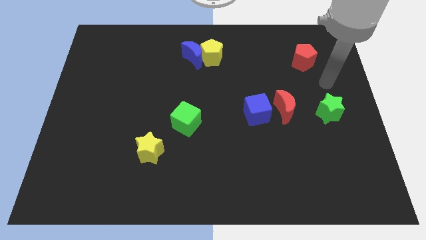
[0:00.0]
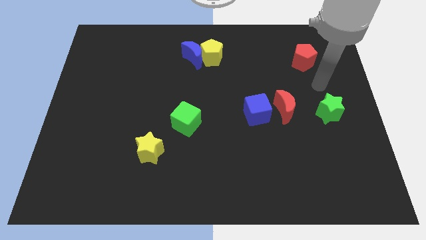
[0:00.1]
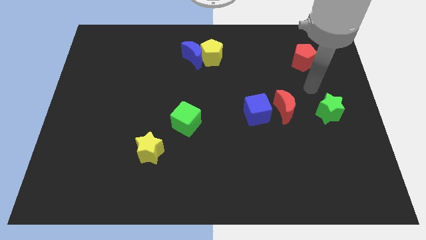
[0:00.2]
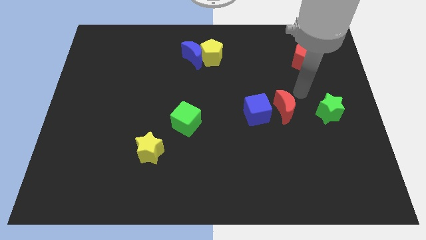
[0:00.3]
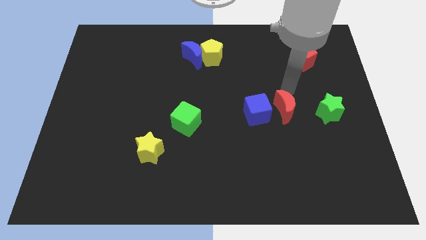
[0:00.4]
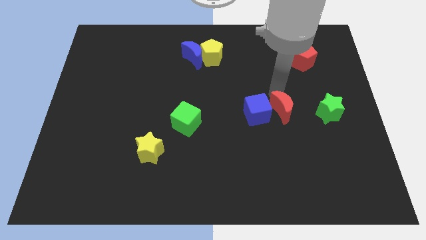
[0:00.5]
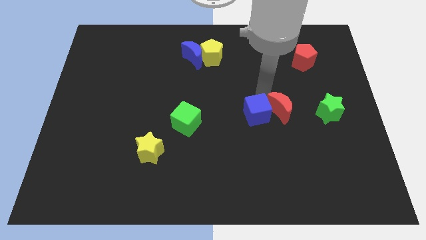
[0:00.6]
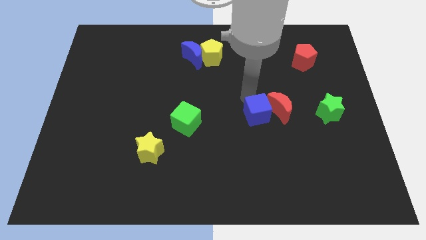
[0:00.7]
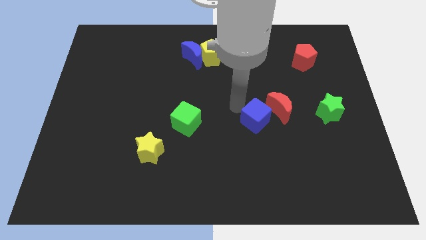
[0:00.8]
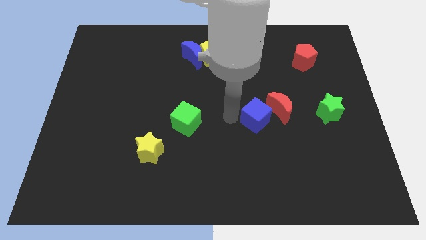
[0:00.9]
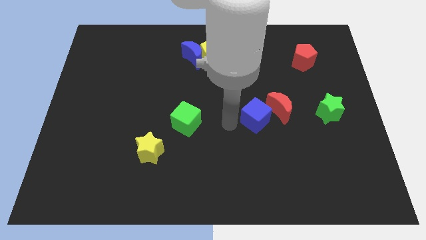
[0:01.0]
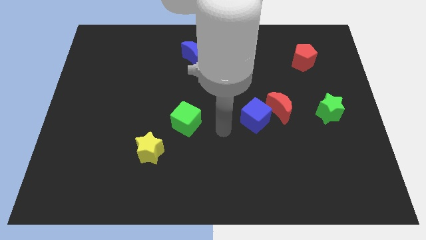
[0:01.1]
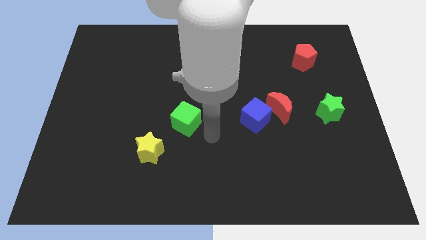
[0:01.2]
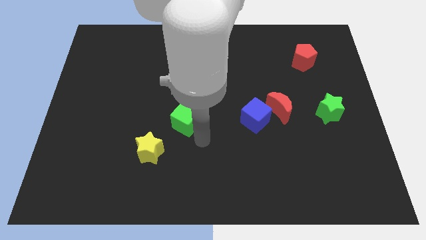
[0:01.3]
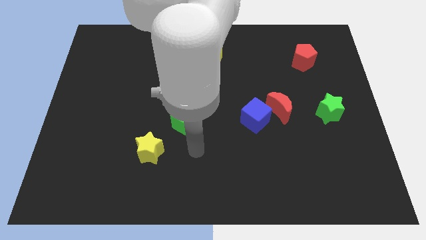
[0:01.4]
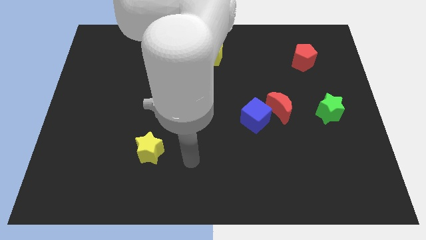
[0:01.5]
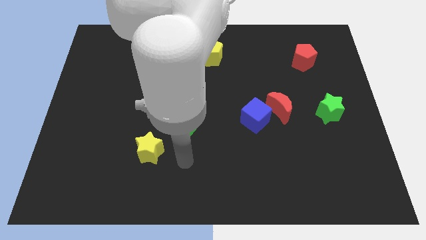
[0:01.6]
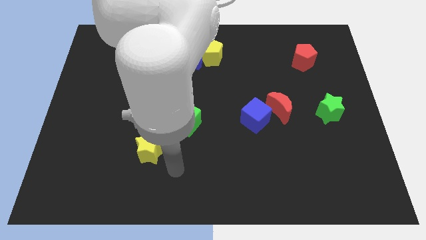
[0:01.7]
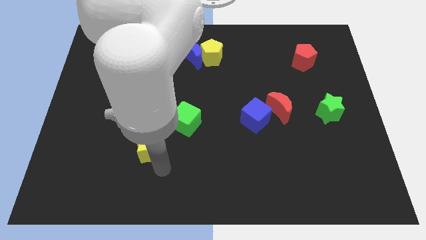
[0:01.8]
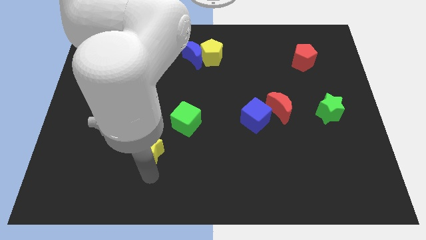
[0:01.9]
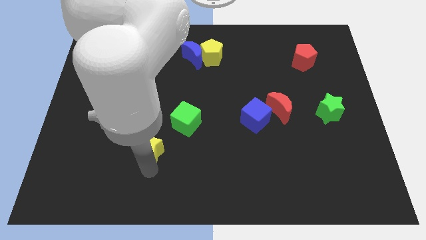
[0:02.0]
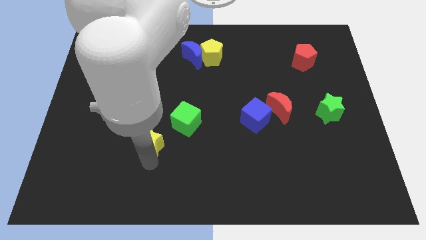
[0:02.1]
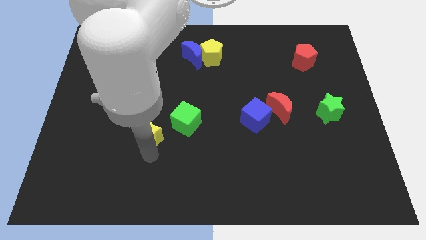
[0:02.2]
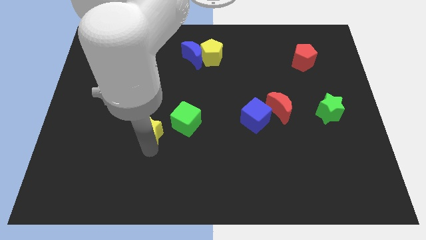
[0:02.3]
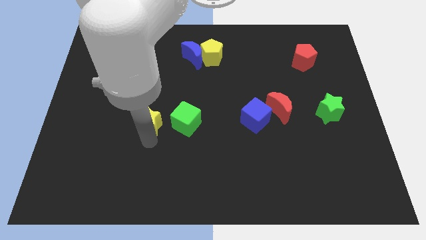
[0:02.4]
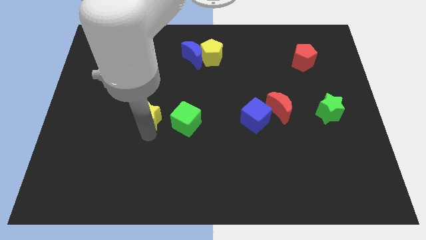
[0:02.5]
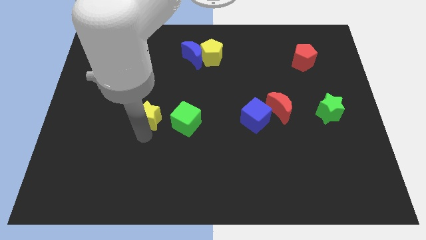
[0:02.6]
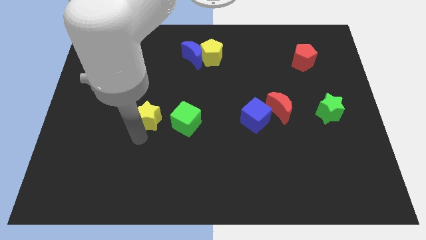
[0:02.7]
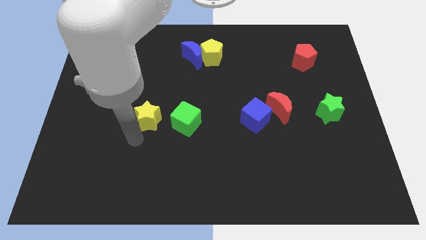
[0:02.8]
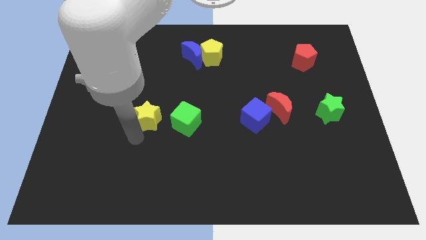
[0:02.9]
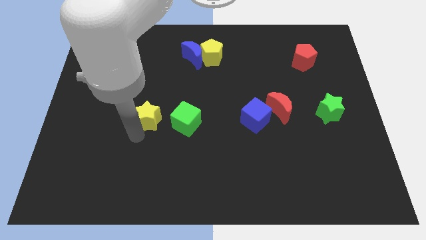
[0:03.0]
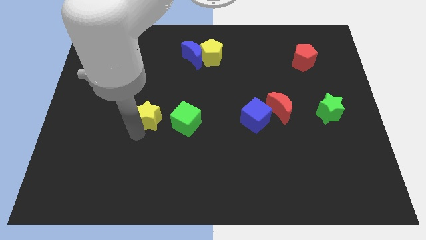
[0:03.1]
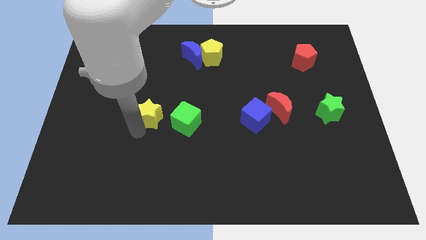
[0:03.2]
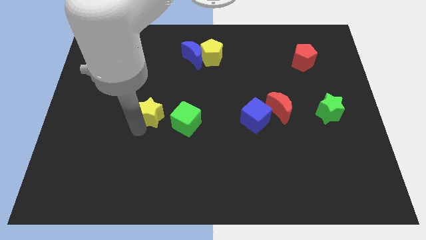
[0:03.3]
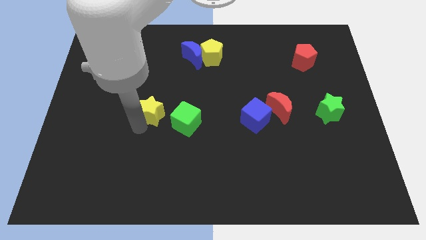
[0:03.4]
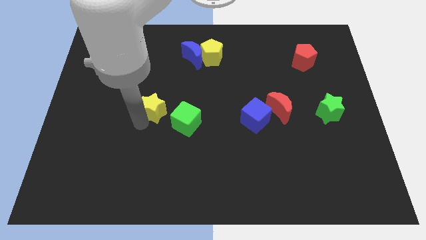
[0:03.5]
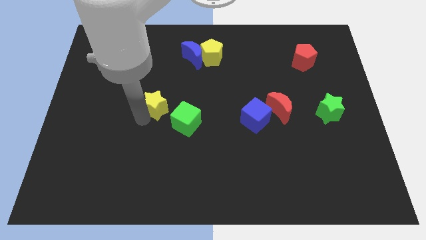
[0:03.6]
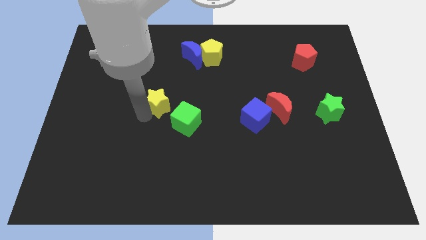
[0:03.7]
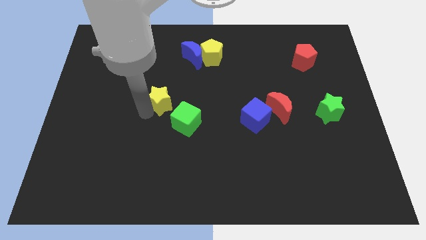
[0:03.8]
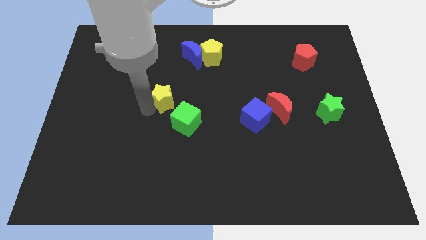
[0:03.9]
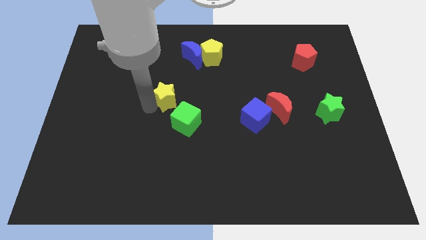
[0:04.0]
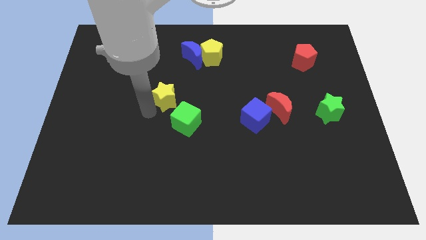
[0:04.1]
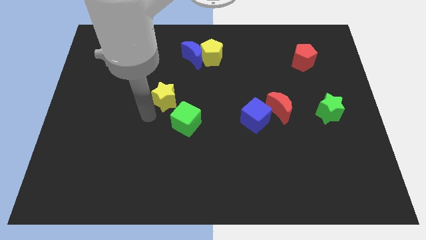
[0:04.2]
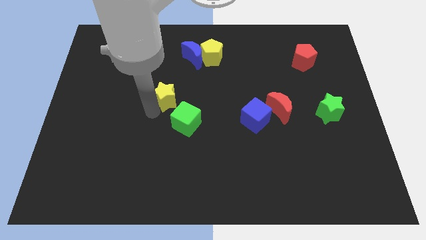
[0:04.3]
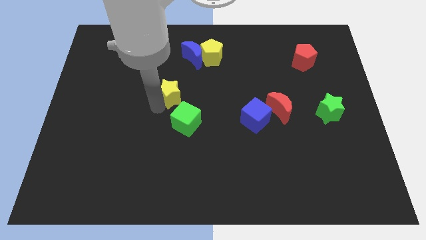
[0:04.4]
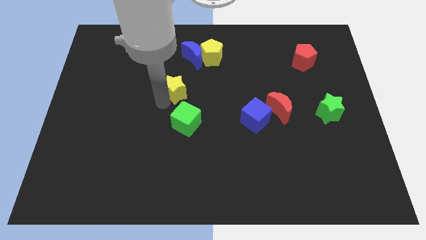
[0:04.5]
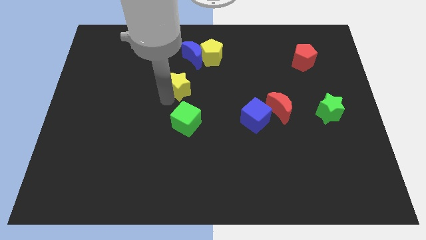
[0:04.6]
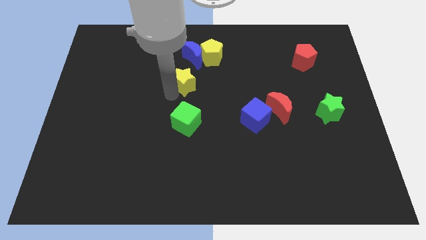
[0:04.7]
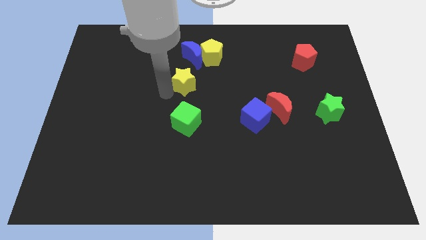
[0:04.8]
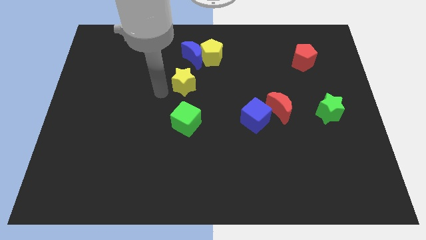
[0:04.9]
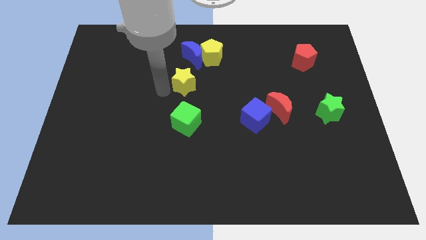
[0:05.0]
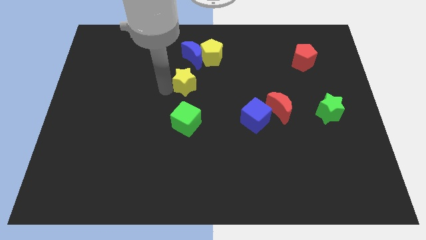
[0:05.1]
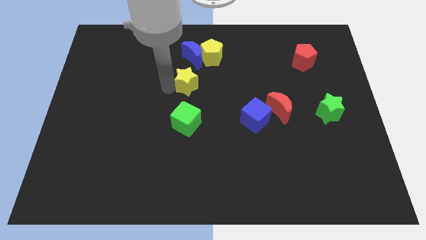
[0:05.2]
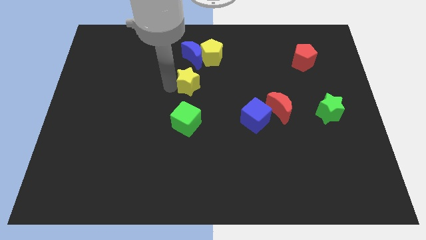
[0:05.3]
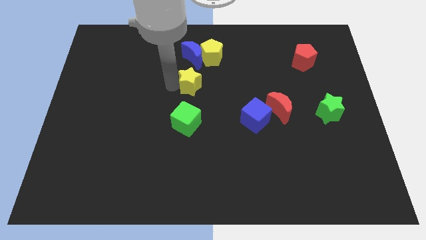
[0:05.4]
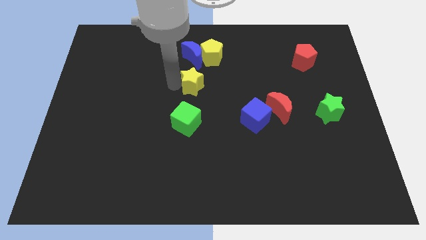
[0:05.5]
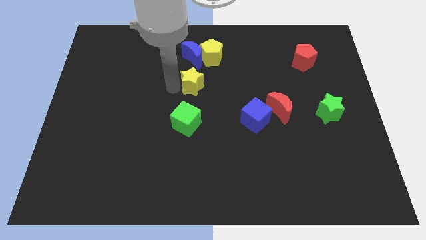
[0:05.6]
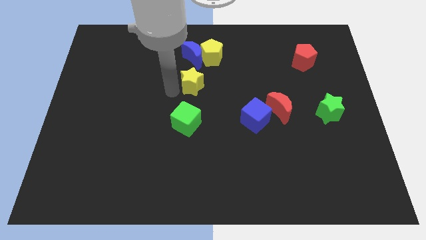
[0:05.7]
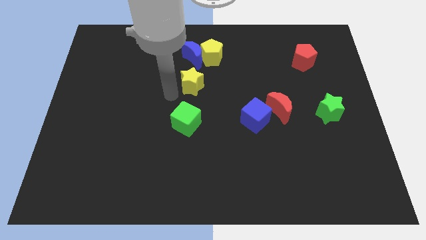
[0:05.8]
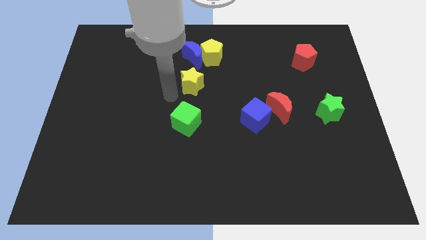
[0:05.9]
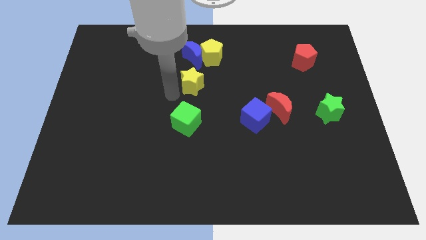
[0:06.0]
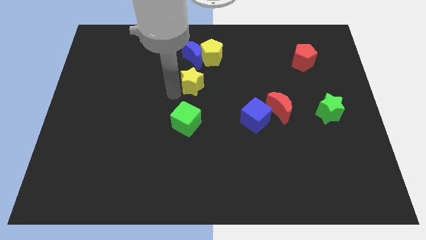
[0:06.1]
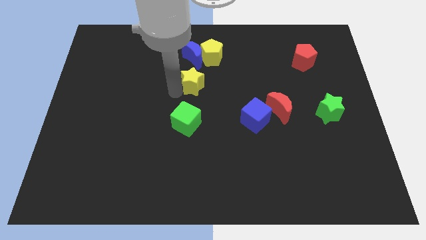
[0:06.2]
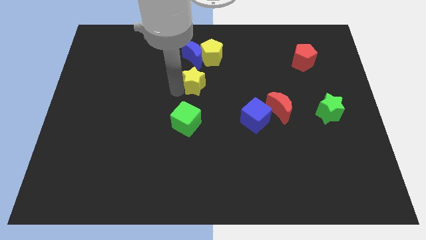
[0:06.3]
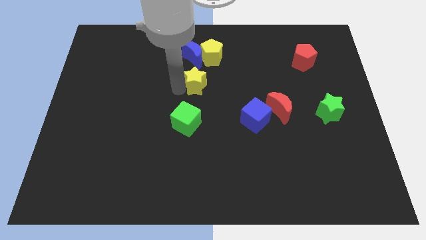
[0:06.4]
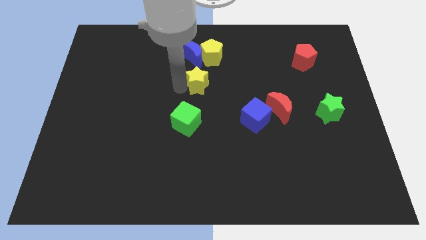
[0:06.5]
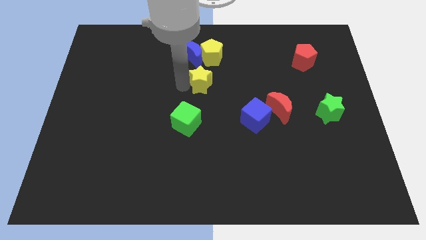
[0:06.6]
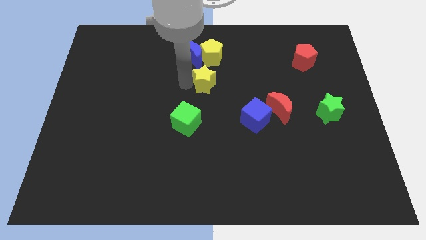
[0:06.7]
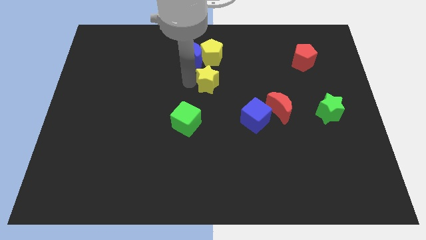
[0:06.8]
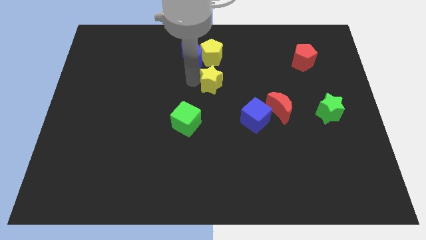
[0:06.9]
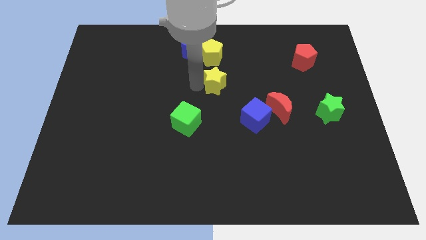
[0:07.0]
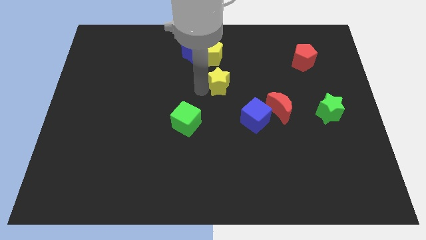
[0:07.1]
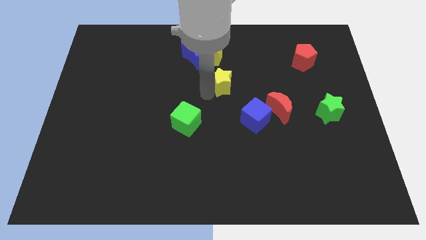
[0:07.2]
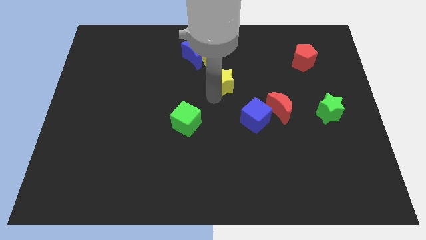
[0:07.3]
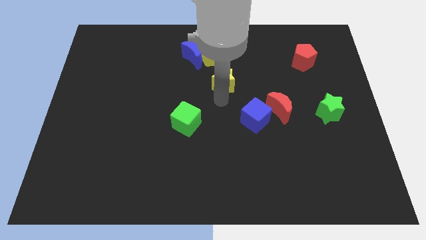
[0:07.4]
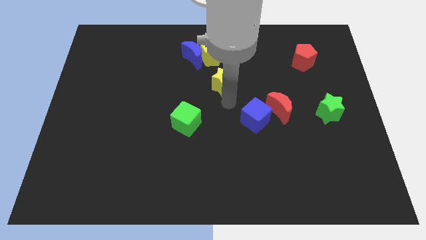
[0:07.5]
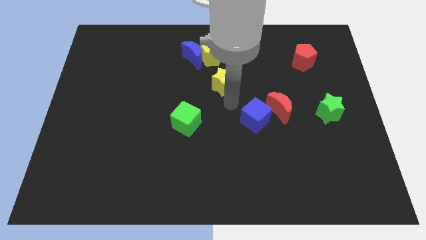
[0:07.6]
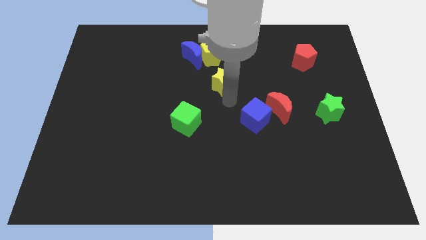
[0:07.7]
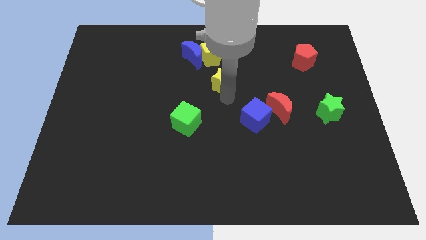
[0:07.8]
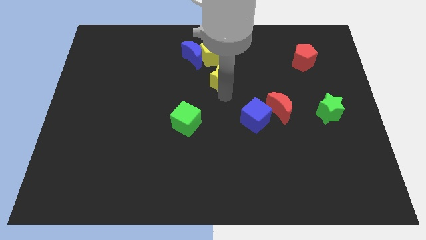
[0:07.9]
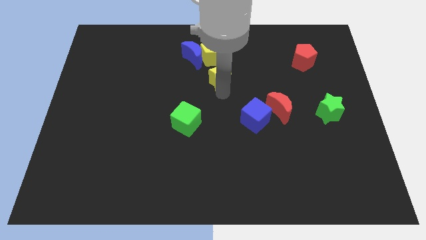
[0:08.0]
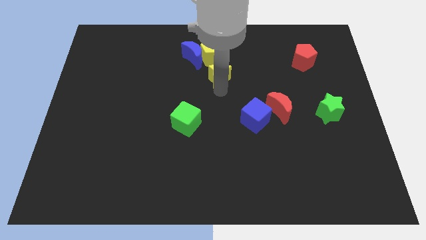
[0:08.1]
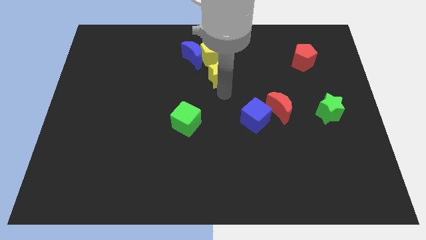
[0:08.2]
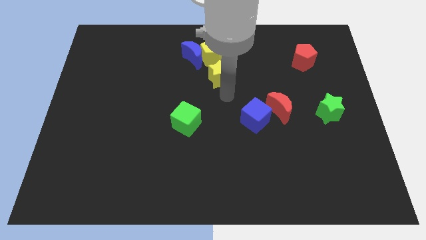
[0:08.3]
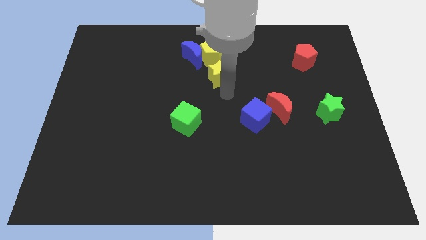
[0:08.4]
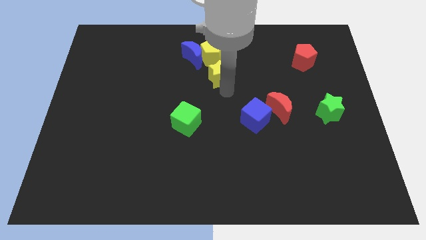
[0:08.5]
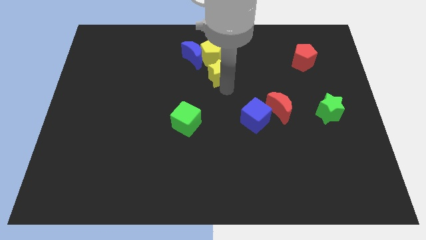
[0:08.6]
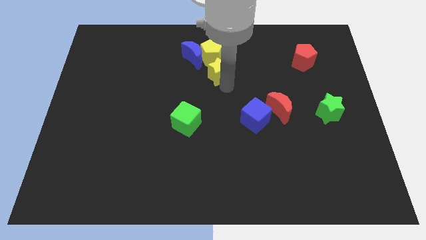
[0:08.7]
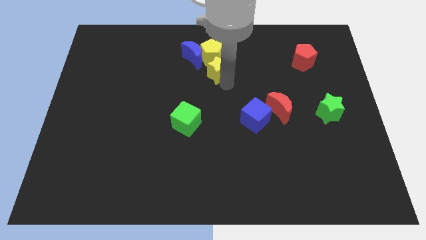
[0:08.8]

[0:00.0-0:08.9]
move the yellow star close to the yellow pentagon
